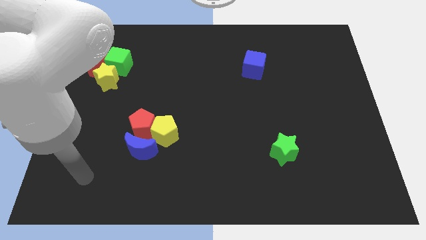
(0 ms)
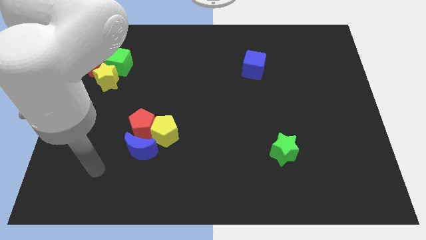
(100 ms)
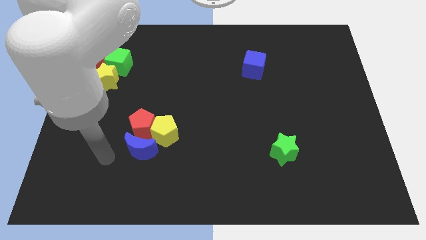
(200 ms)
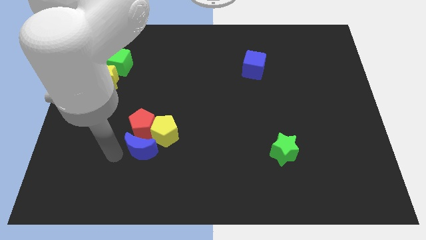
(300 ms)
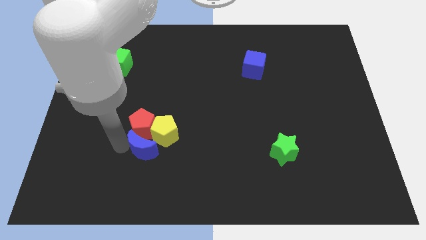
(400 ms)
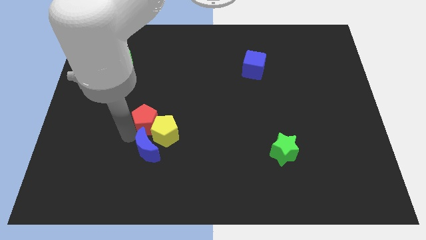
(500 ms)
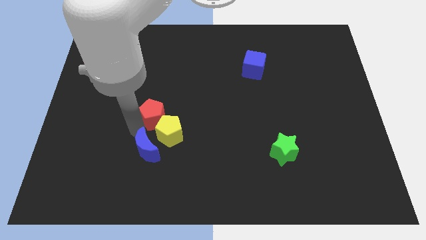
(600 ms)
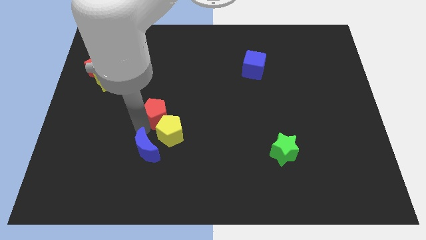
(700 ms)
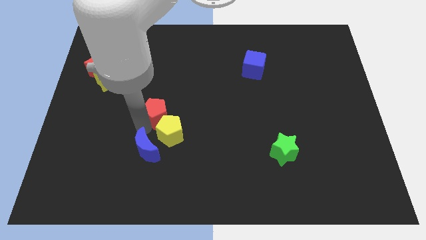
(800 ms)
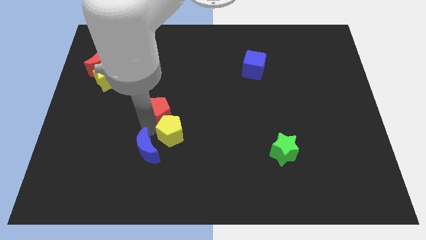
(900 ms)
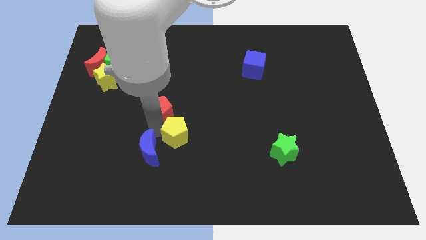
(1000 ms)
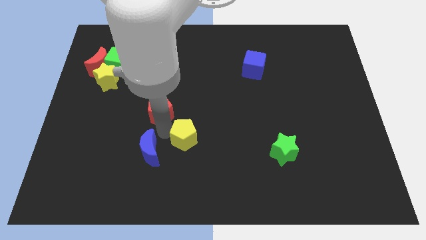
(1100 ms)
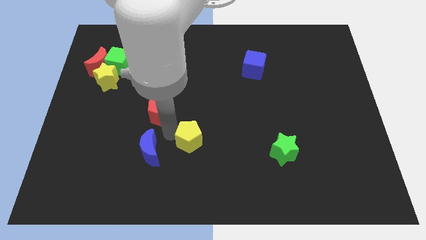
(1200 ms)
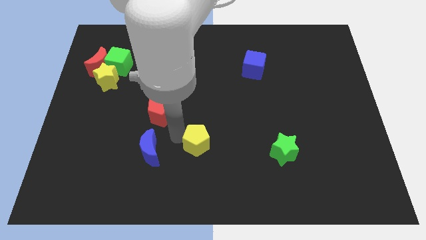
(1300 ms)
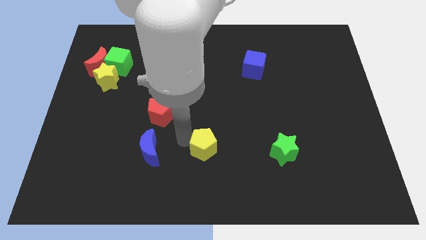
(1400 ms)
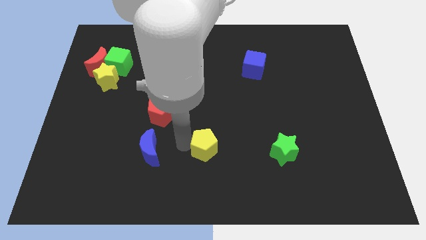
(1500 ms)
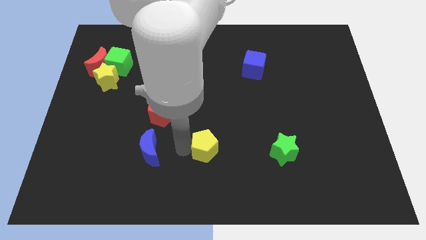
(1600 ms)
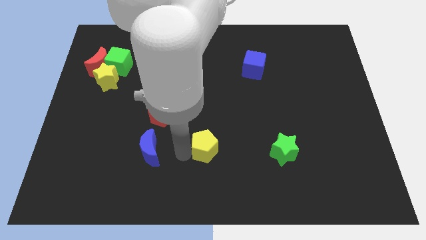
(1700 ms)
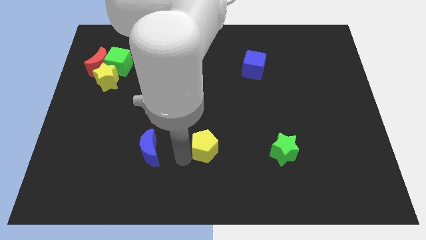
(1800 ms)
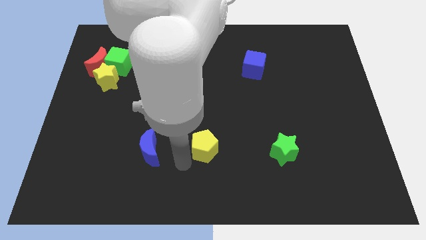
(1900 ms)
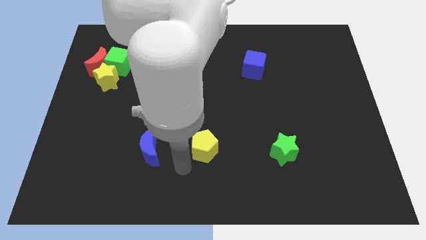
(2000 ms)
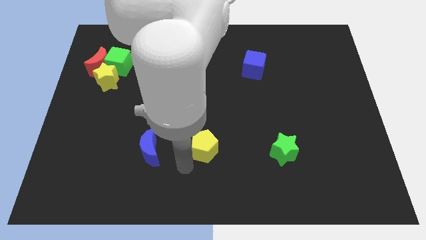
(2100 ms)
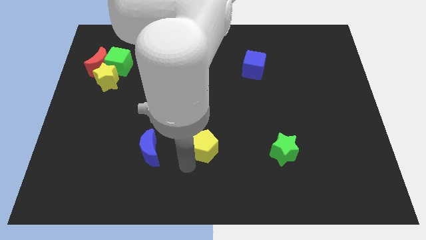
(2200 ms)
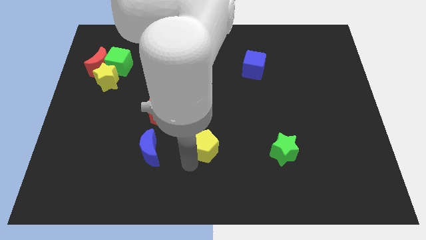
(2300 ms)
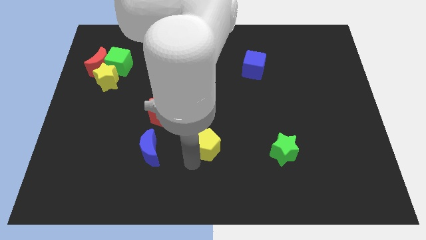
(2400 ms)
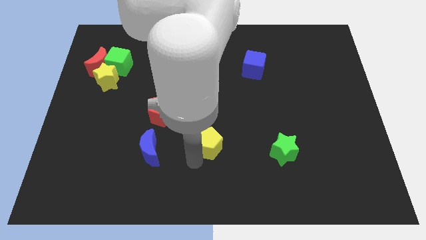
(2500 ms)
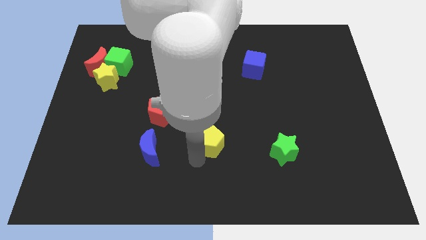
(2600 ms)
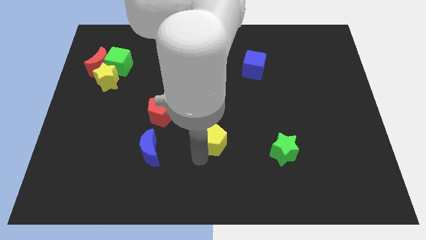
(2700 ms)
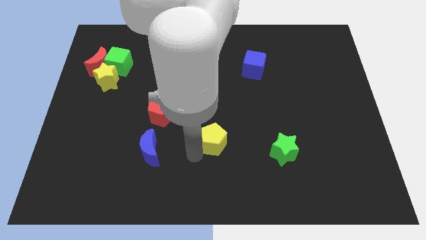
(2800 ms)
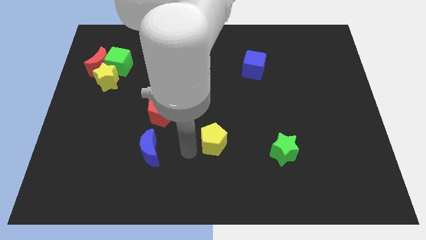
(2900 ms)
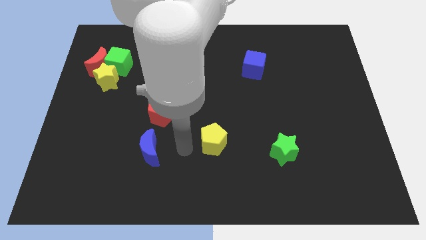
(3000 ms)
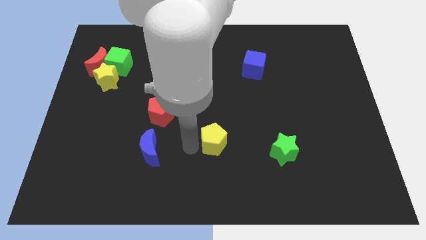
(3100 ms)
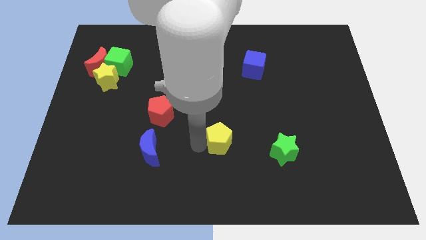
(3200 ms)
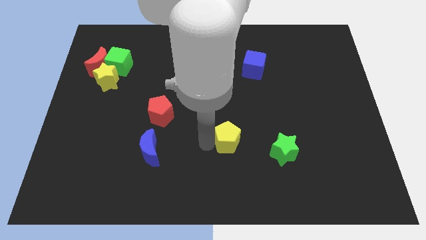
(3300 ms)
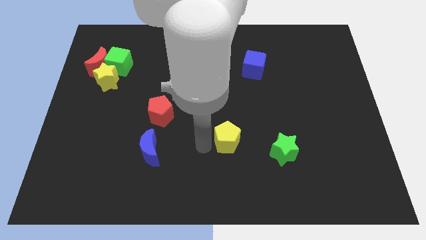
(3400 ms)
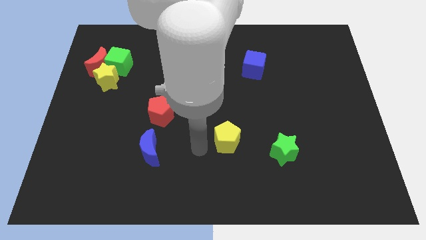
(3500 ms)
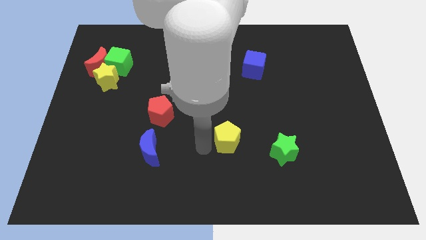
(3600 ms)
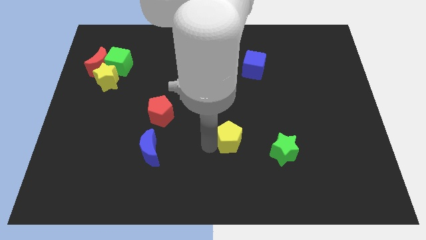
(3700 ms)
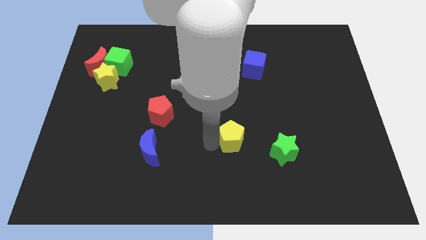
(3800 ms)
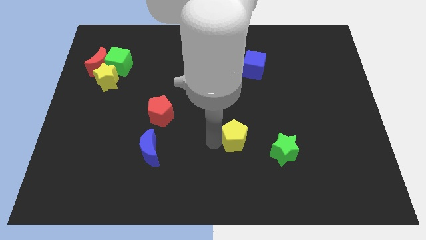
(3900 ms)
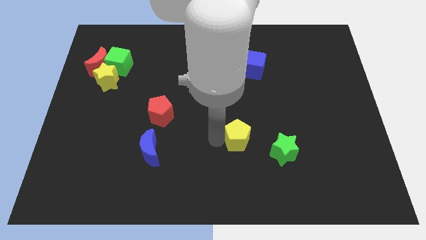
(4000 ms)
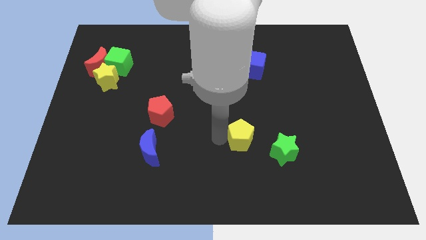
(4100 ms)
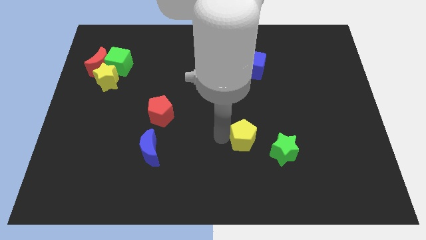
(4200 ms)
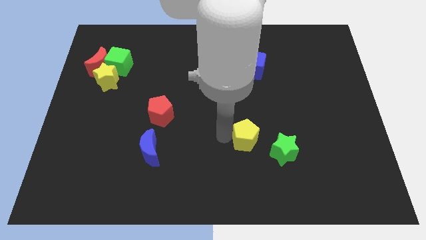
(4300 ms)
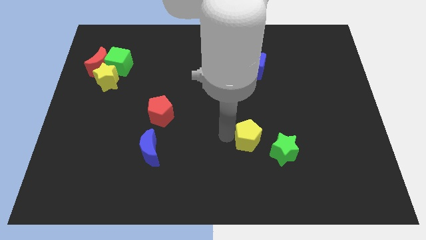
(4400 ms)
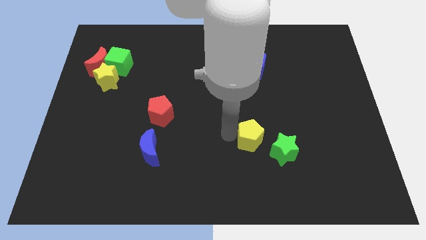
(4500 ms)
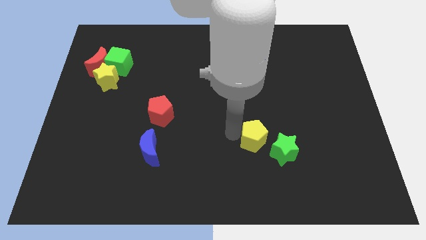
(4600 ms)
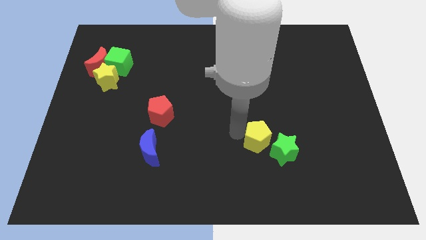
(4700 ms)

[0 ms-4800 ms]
push the yellow pentagon to the right

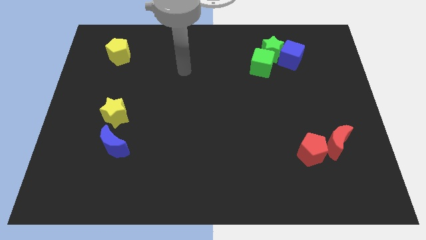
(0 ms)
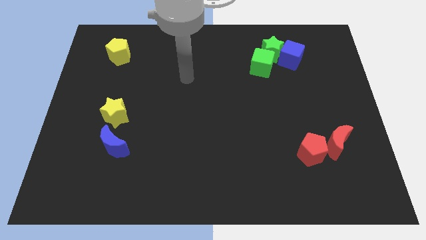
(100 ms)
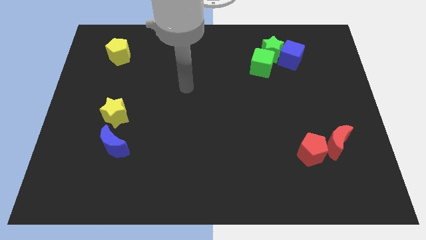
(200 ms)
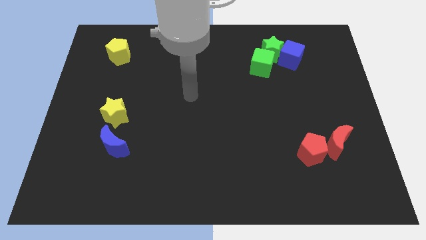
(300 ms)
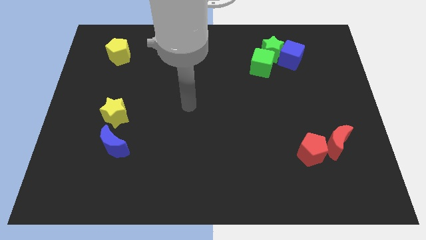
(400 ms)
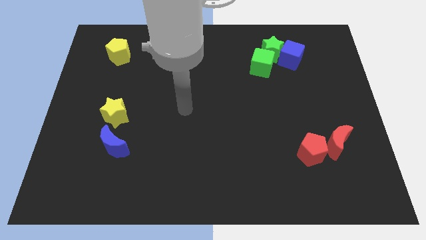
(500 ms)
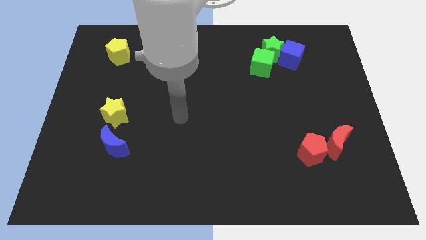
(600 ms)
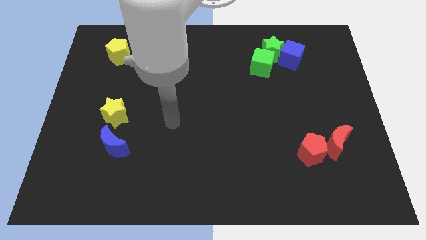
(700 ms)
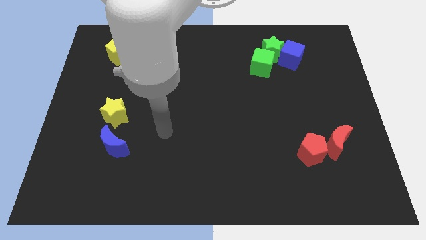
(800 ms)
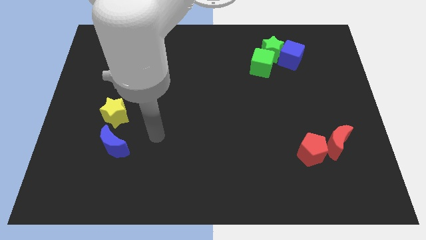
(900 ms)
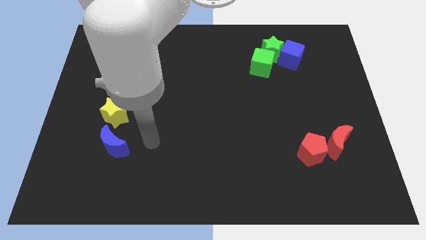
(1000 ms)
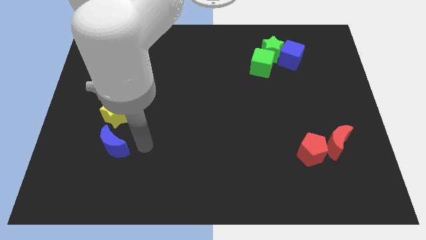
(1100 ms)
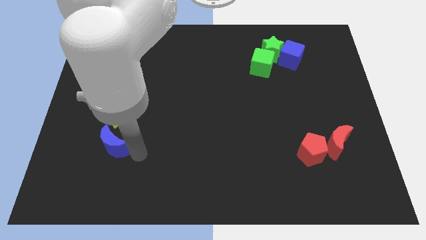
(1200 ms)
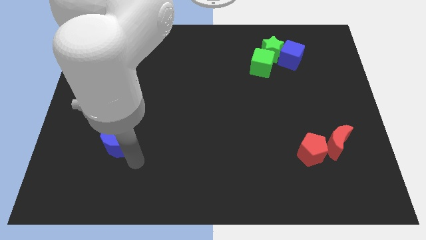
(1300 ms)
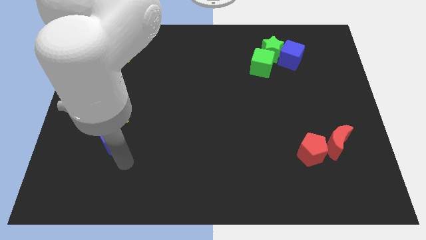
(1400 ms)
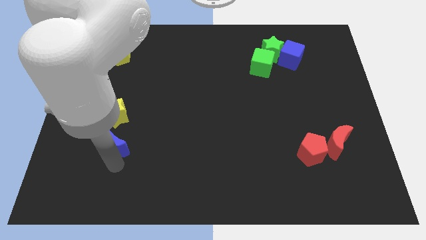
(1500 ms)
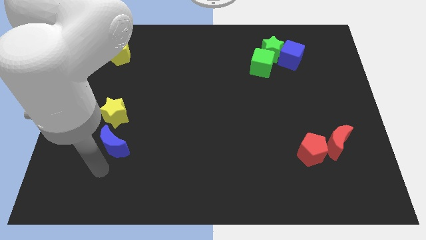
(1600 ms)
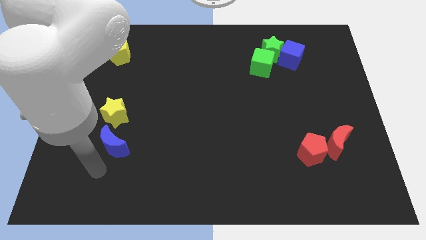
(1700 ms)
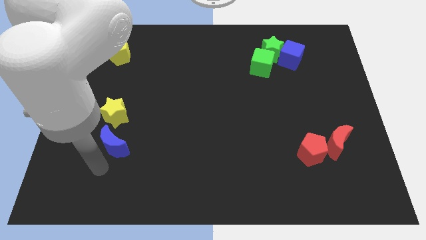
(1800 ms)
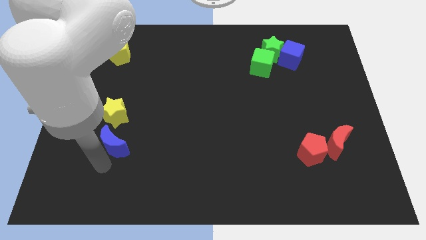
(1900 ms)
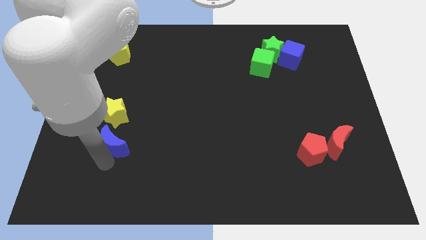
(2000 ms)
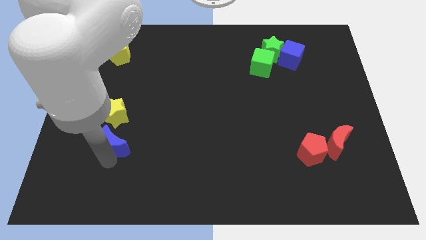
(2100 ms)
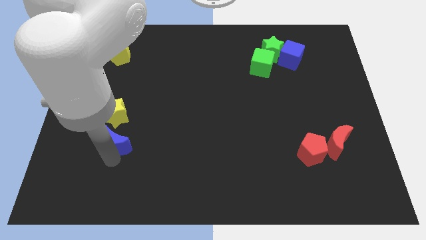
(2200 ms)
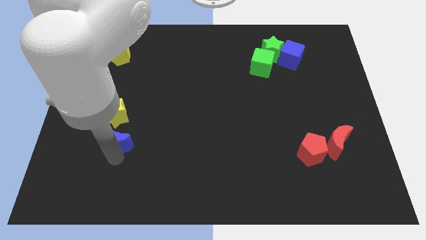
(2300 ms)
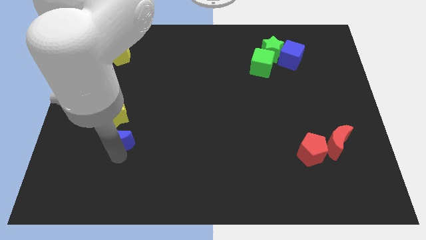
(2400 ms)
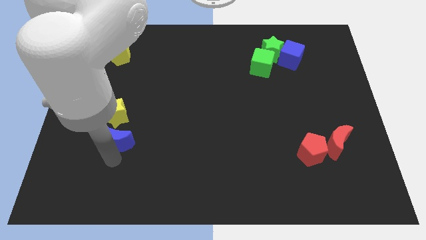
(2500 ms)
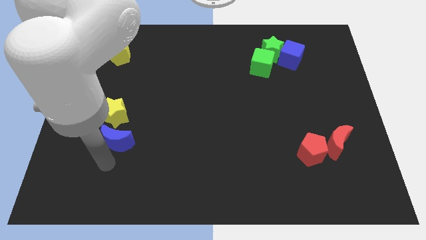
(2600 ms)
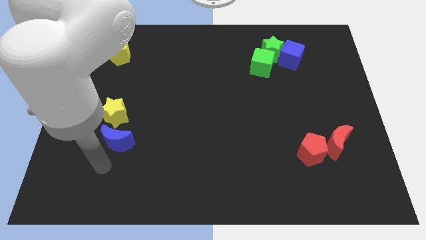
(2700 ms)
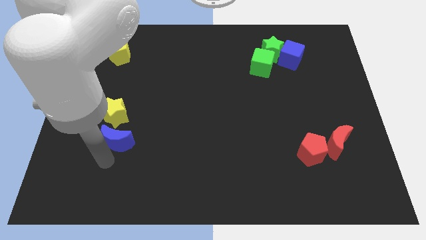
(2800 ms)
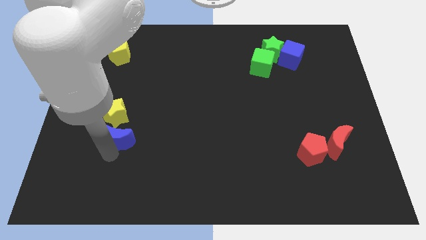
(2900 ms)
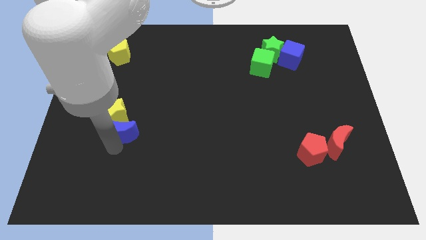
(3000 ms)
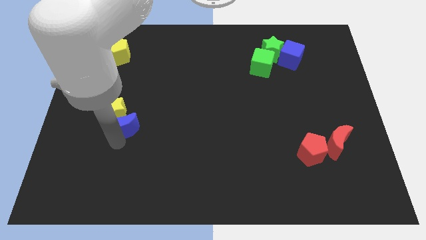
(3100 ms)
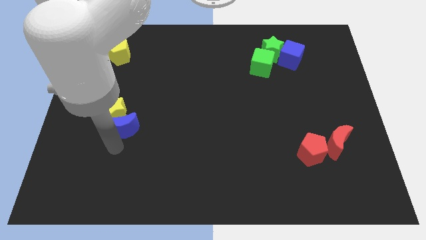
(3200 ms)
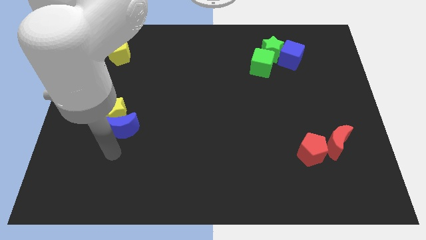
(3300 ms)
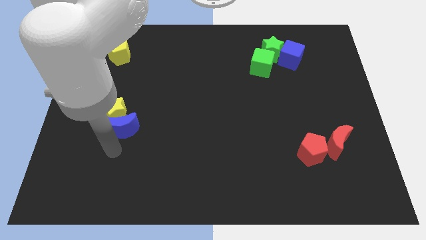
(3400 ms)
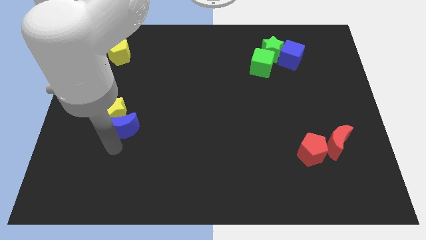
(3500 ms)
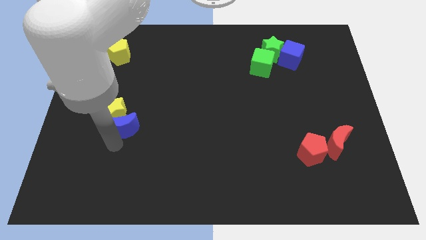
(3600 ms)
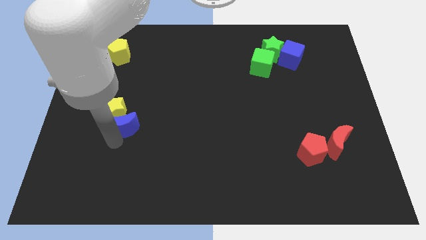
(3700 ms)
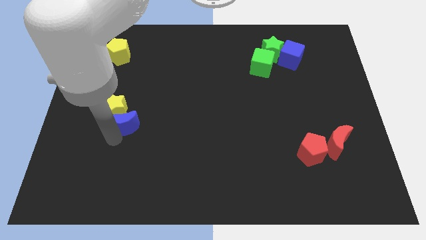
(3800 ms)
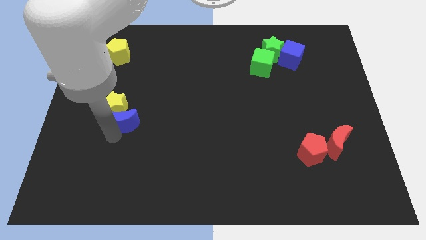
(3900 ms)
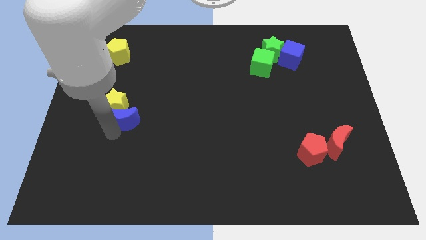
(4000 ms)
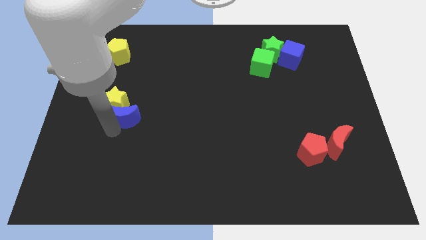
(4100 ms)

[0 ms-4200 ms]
slightly move the blue moon up
